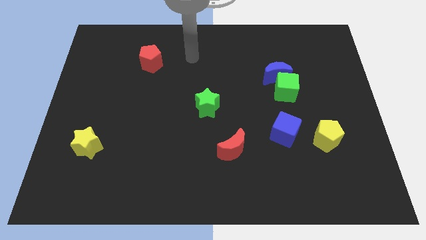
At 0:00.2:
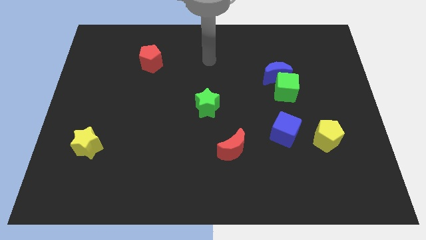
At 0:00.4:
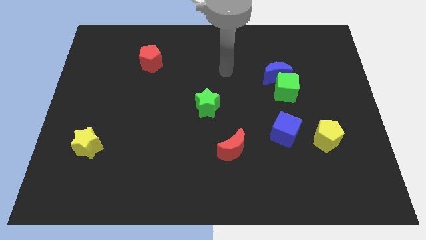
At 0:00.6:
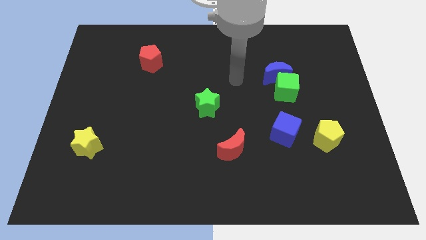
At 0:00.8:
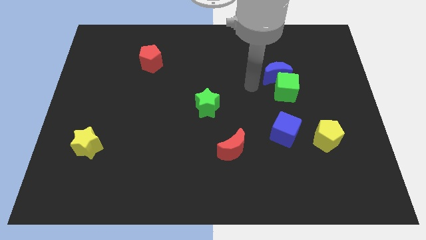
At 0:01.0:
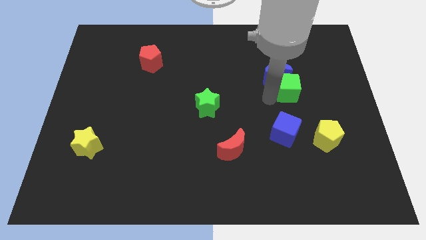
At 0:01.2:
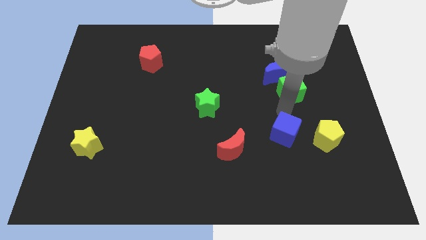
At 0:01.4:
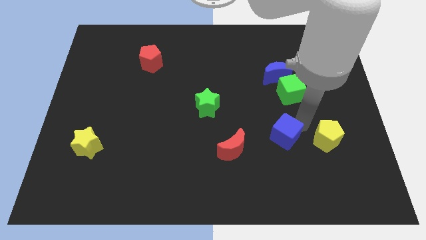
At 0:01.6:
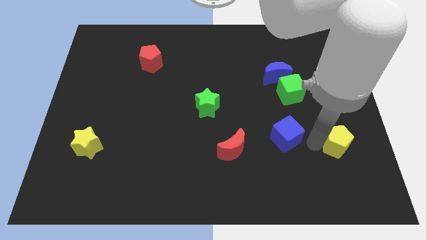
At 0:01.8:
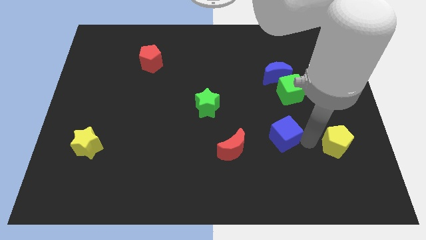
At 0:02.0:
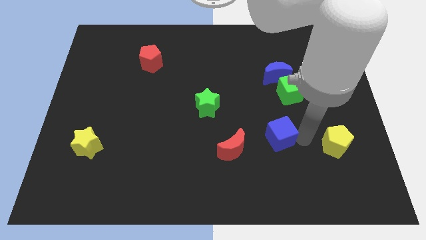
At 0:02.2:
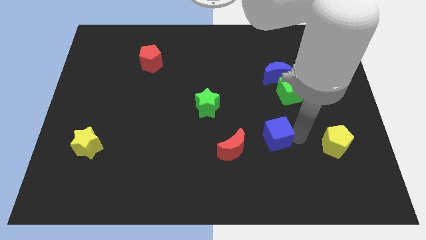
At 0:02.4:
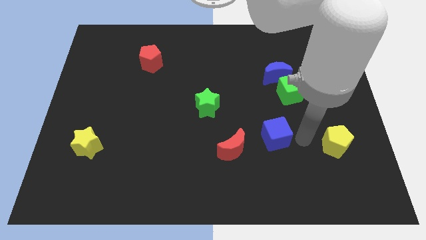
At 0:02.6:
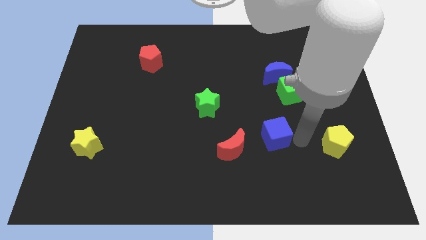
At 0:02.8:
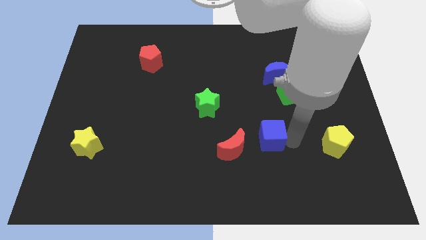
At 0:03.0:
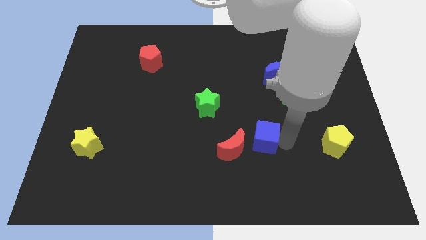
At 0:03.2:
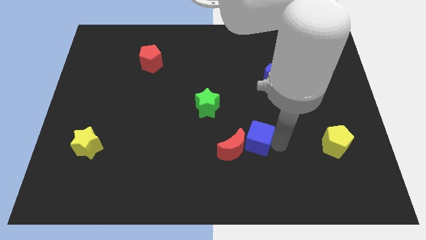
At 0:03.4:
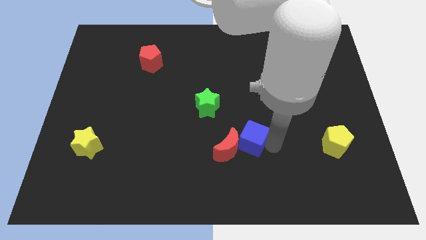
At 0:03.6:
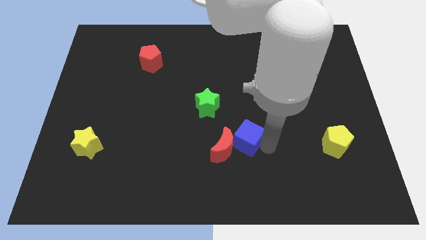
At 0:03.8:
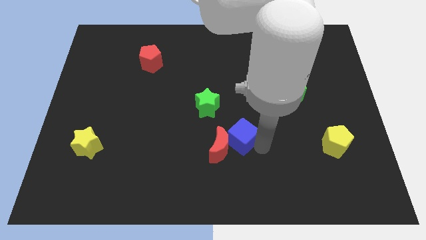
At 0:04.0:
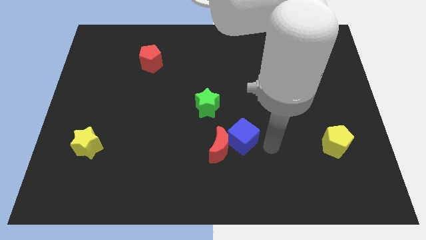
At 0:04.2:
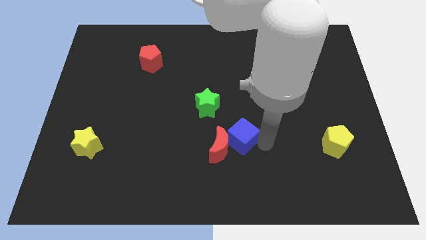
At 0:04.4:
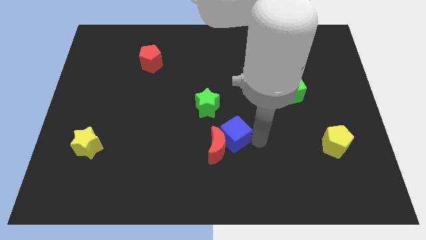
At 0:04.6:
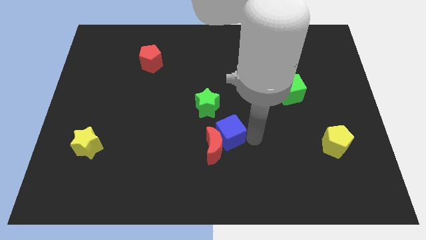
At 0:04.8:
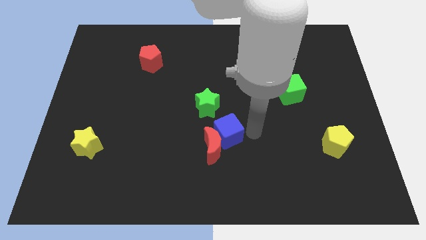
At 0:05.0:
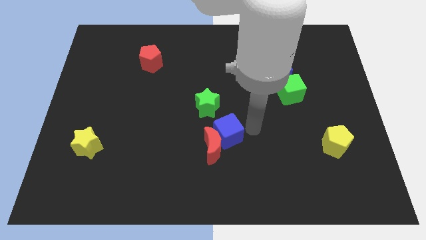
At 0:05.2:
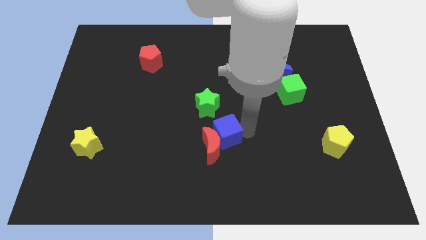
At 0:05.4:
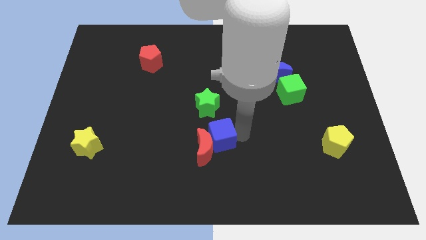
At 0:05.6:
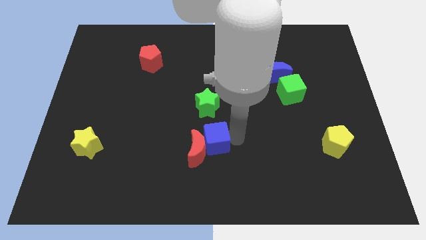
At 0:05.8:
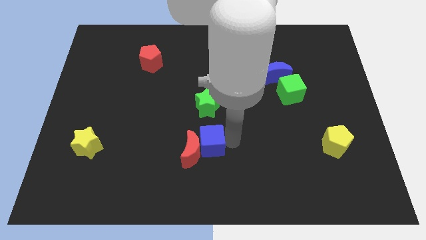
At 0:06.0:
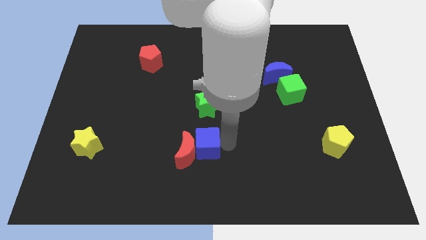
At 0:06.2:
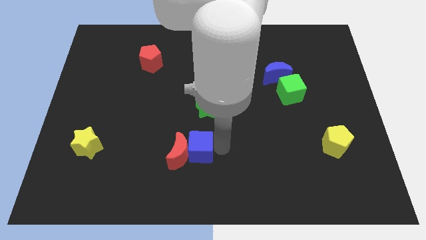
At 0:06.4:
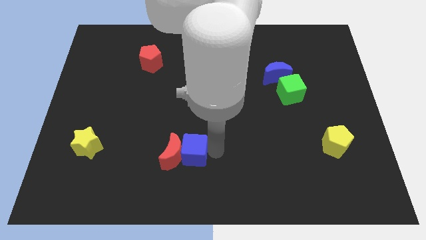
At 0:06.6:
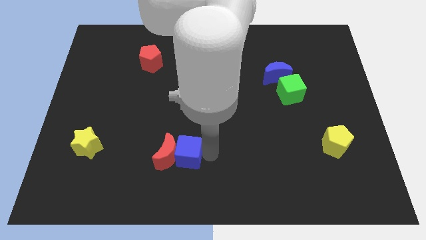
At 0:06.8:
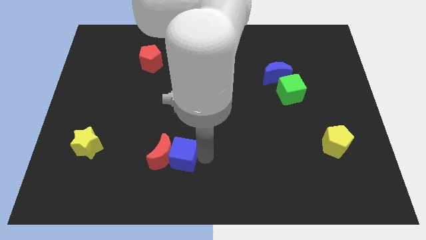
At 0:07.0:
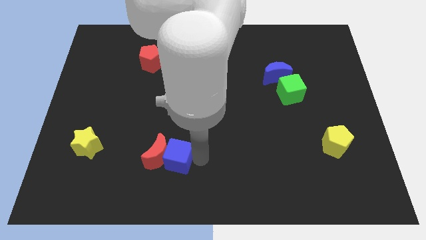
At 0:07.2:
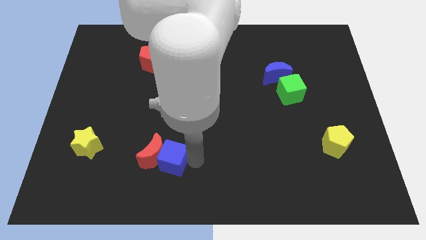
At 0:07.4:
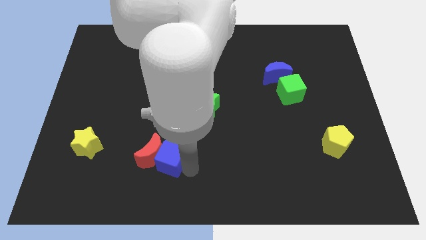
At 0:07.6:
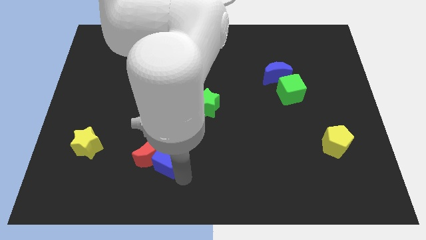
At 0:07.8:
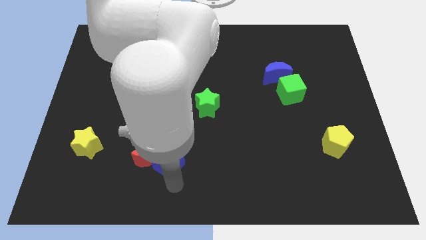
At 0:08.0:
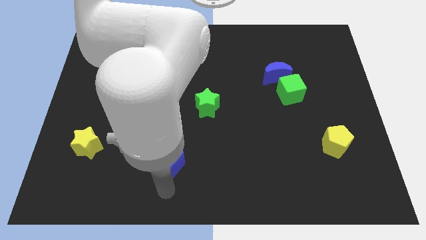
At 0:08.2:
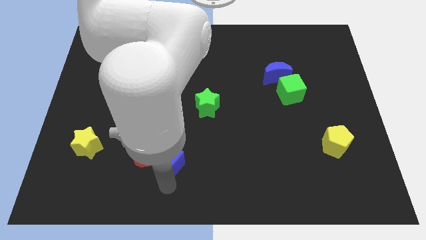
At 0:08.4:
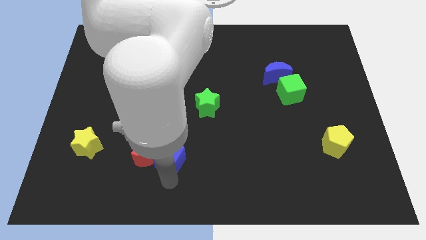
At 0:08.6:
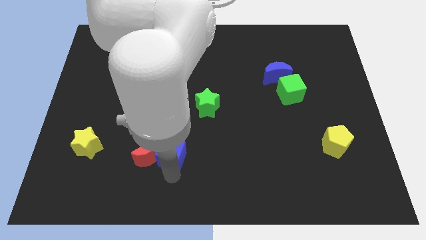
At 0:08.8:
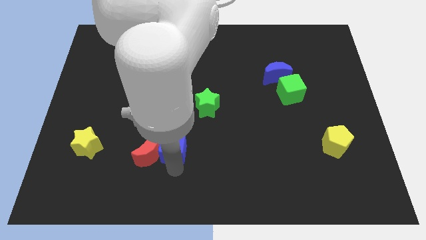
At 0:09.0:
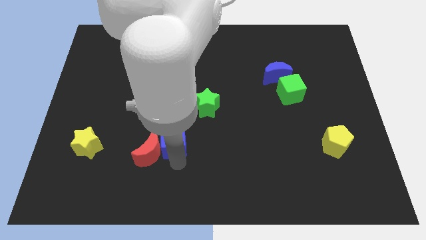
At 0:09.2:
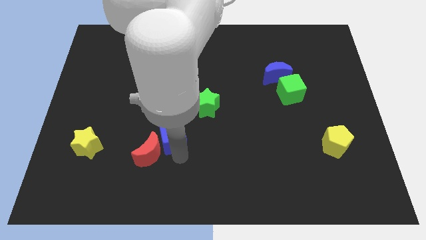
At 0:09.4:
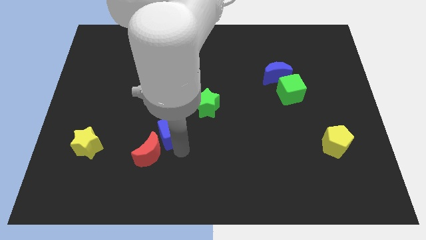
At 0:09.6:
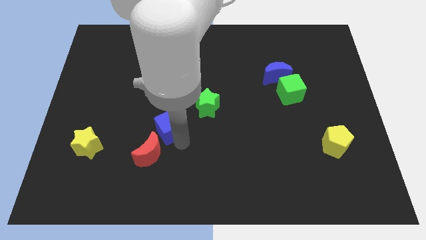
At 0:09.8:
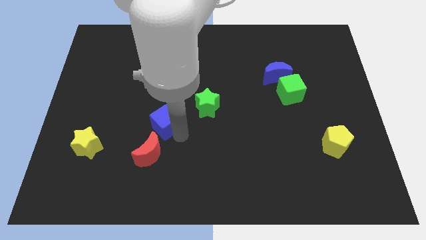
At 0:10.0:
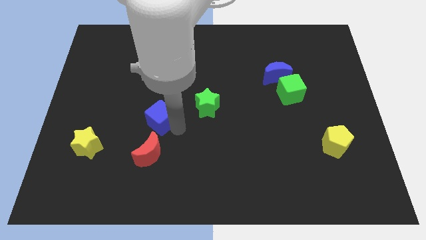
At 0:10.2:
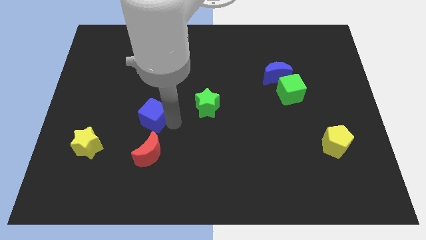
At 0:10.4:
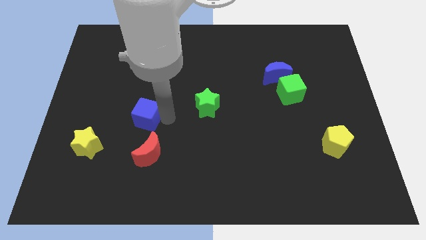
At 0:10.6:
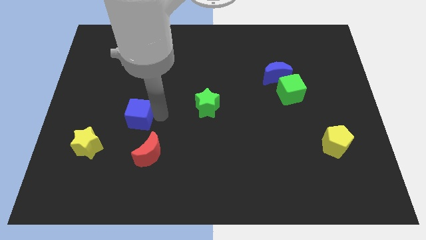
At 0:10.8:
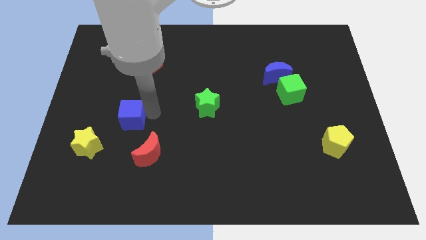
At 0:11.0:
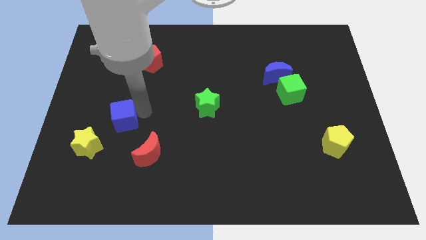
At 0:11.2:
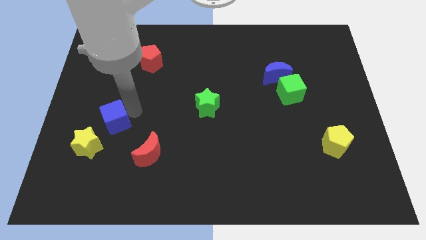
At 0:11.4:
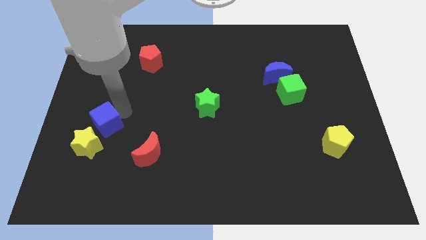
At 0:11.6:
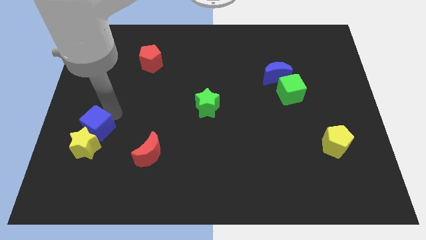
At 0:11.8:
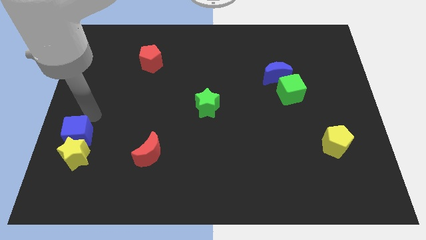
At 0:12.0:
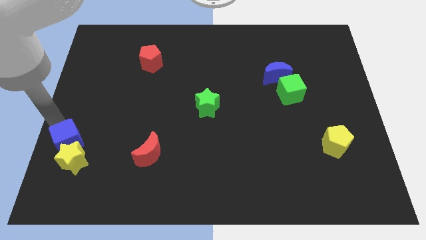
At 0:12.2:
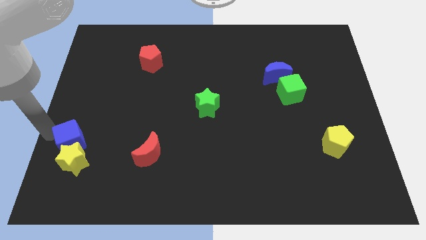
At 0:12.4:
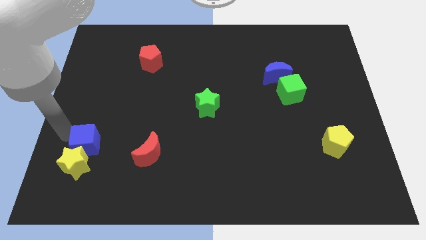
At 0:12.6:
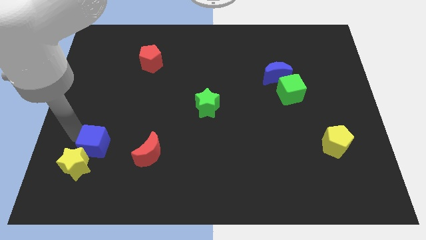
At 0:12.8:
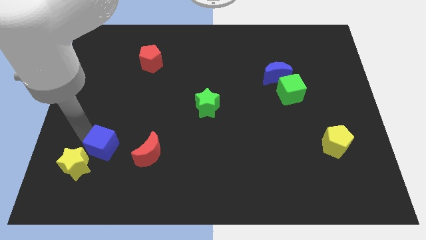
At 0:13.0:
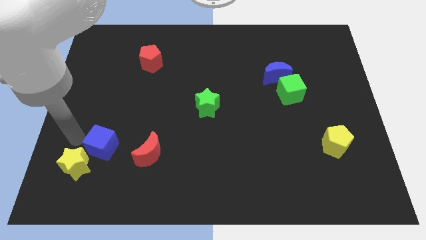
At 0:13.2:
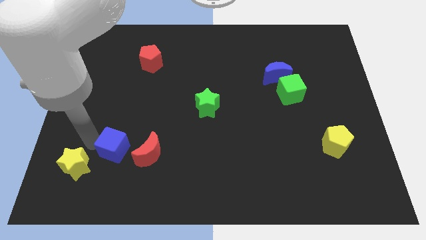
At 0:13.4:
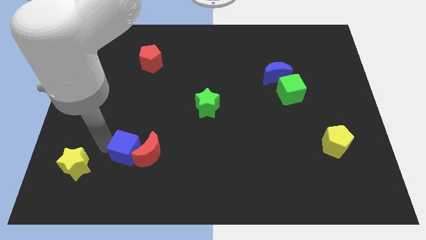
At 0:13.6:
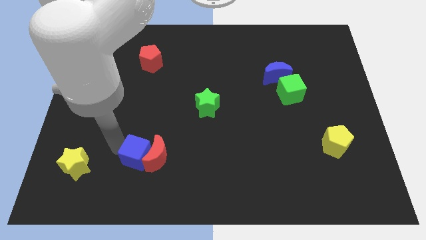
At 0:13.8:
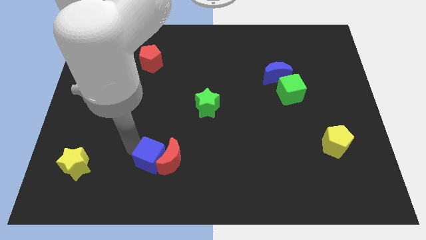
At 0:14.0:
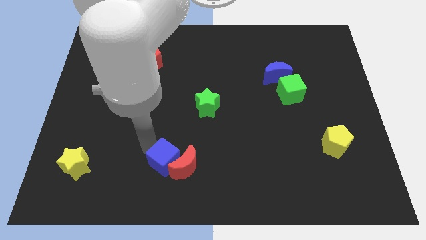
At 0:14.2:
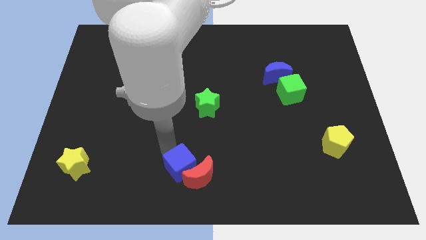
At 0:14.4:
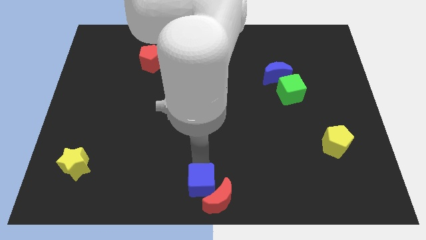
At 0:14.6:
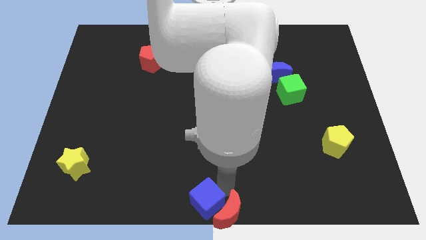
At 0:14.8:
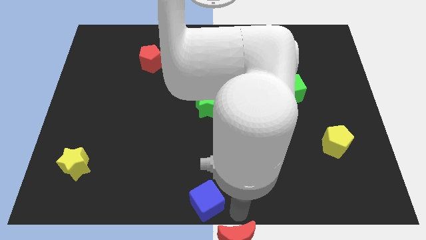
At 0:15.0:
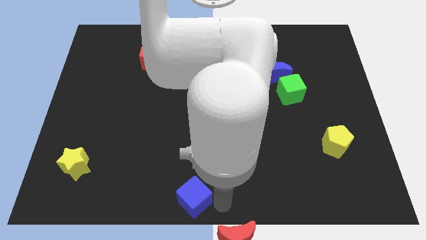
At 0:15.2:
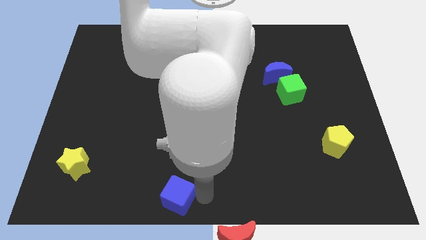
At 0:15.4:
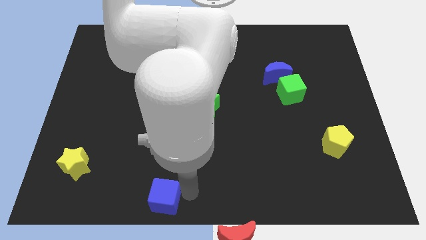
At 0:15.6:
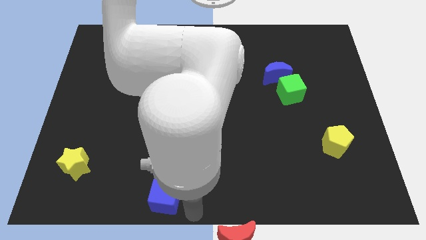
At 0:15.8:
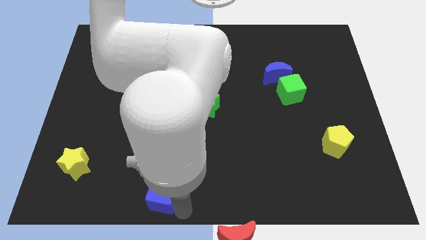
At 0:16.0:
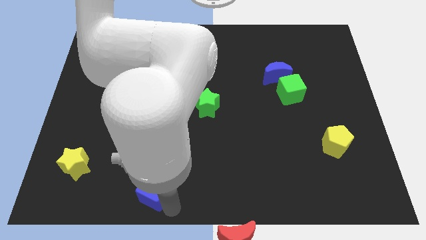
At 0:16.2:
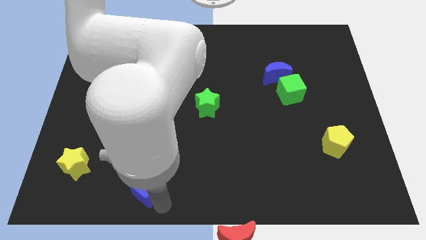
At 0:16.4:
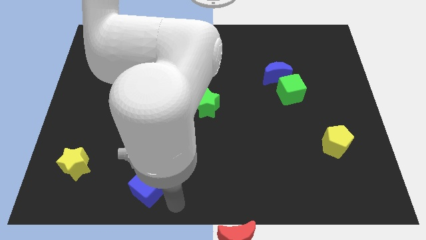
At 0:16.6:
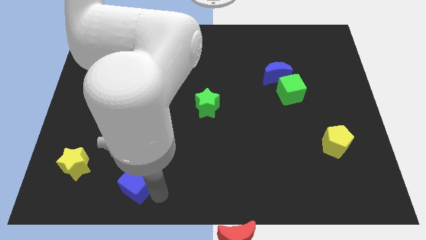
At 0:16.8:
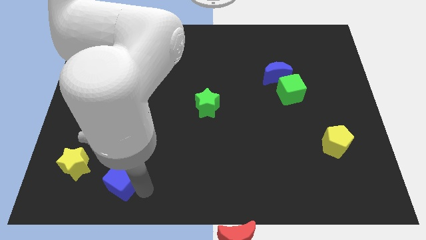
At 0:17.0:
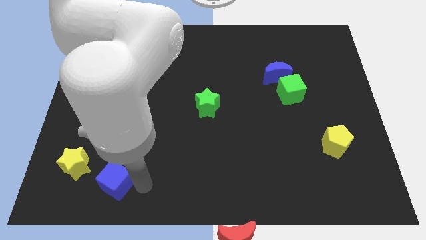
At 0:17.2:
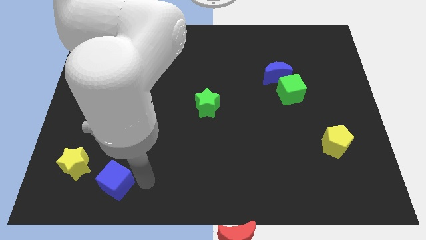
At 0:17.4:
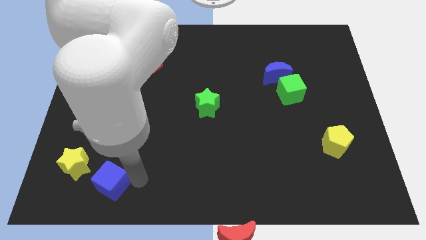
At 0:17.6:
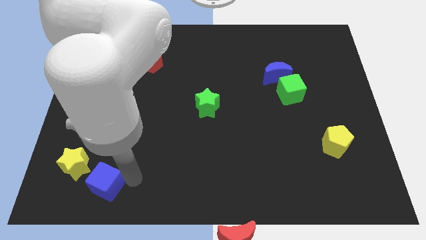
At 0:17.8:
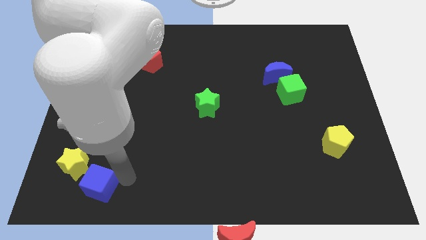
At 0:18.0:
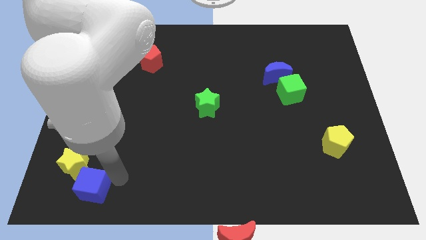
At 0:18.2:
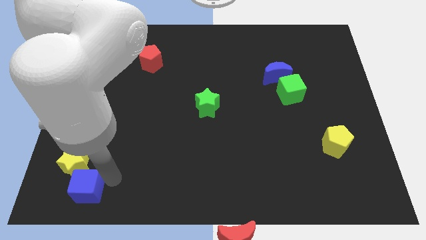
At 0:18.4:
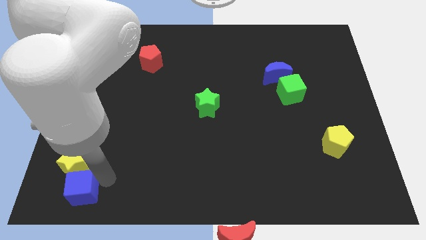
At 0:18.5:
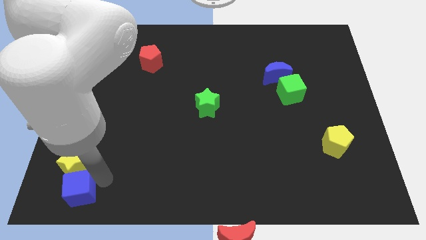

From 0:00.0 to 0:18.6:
push the blue cube to the bottom left corner
